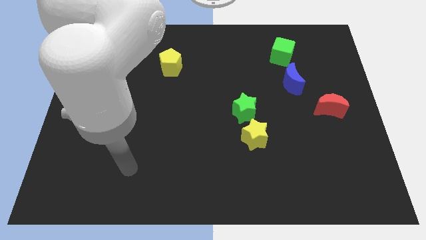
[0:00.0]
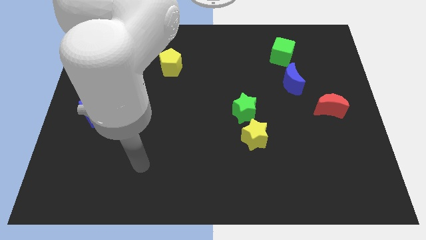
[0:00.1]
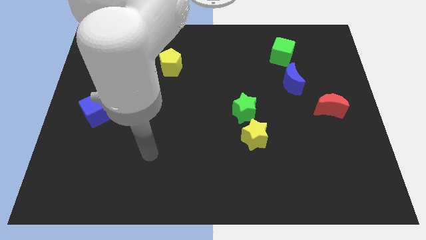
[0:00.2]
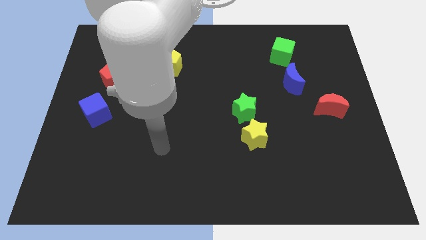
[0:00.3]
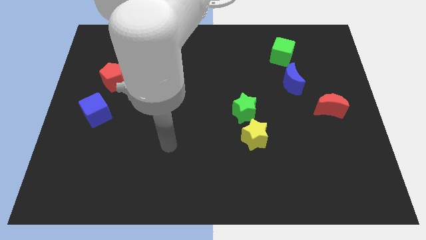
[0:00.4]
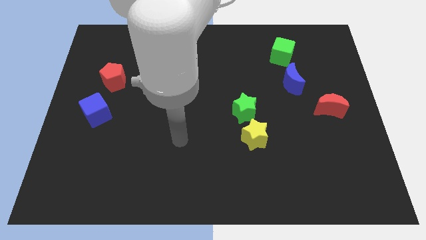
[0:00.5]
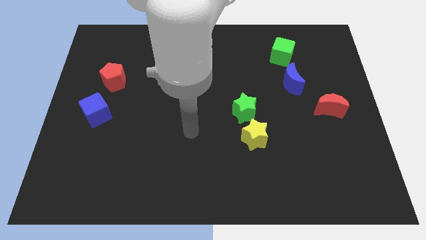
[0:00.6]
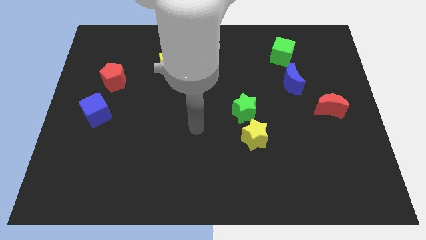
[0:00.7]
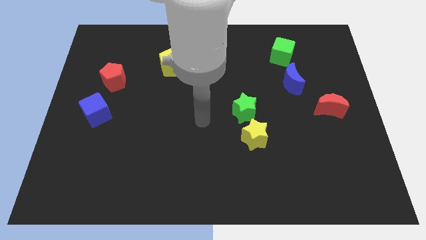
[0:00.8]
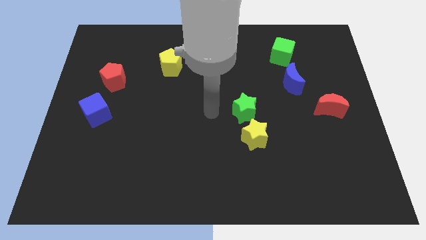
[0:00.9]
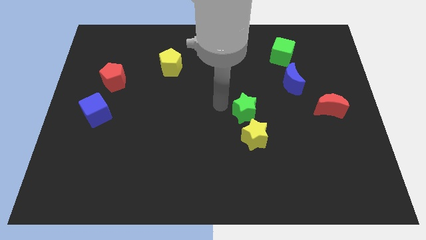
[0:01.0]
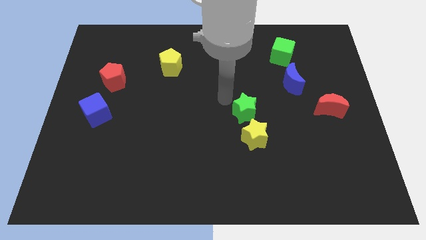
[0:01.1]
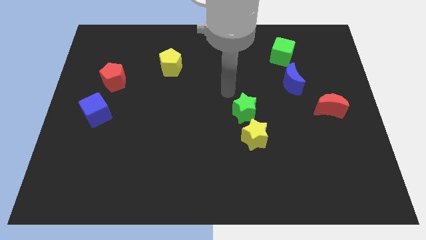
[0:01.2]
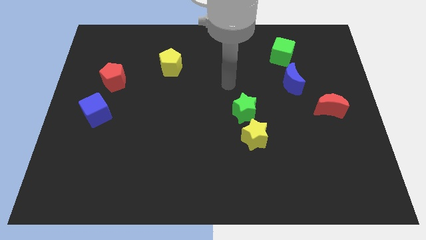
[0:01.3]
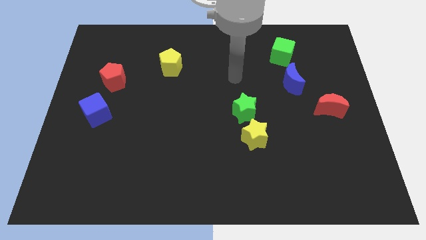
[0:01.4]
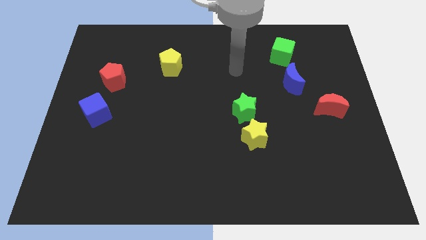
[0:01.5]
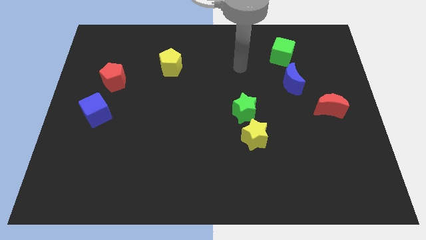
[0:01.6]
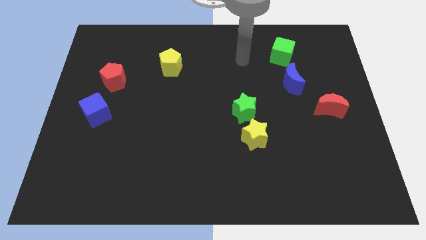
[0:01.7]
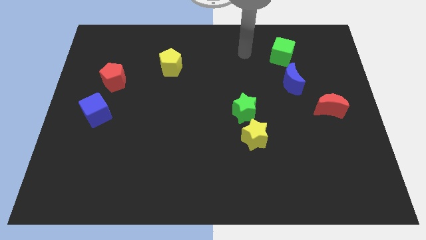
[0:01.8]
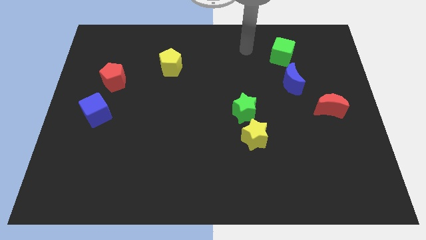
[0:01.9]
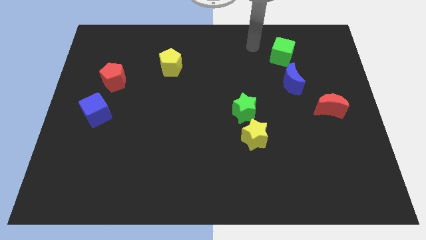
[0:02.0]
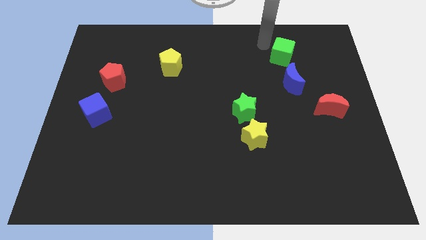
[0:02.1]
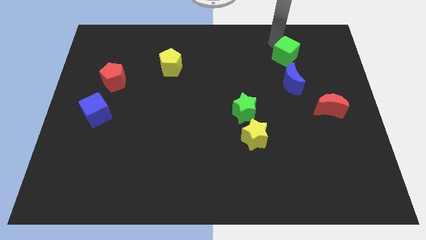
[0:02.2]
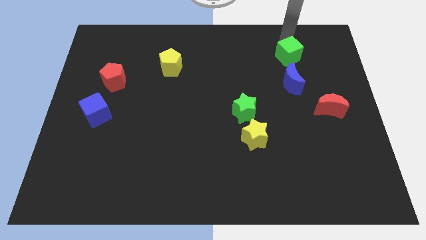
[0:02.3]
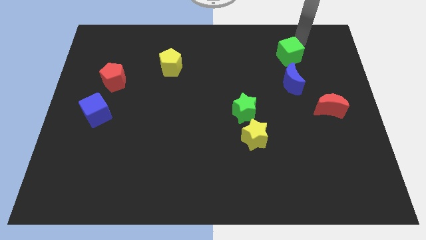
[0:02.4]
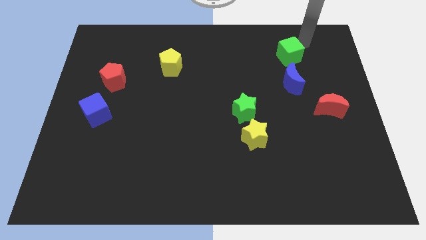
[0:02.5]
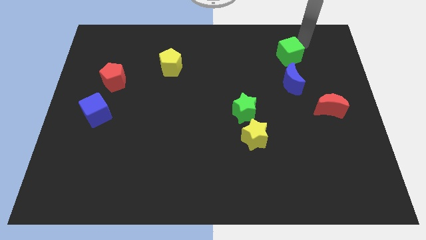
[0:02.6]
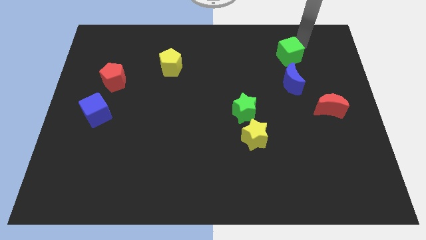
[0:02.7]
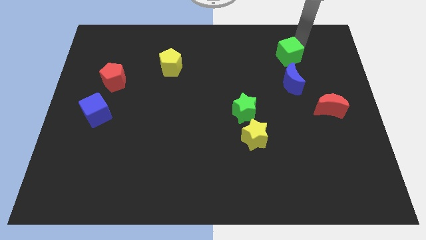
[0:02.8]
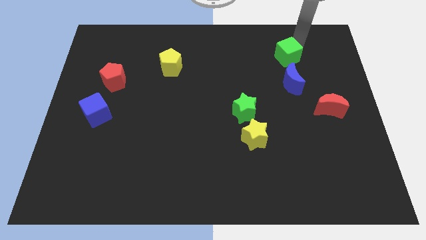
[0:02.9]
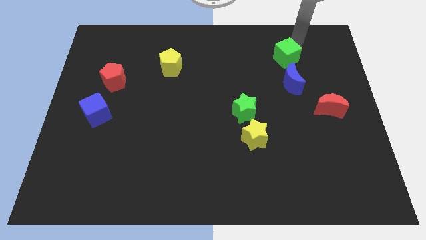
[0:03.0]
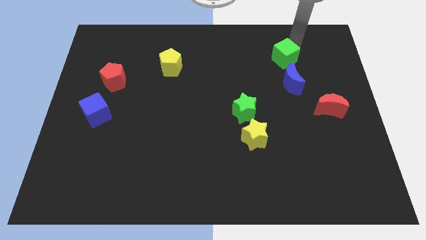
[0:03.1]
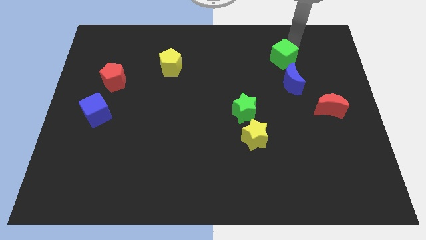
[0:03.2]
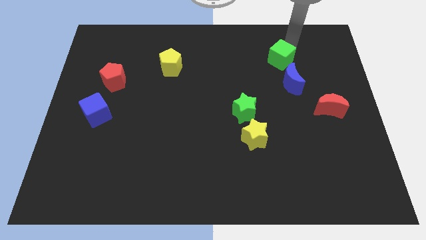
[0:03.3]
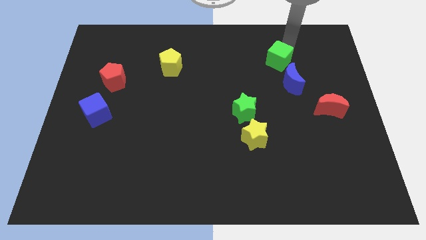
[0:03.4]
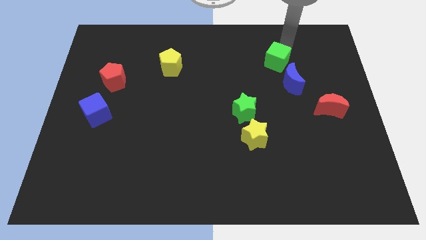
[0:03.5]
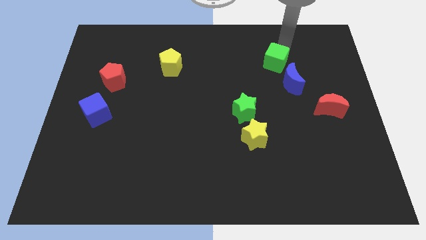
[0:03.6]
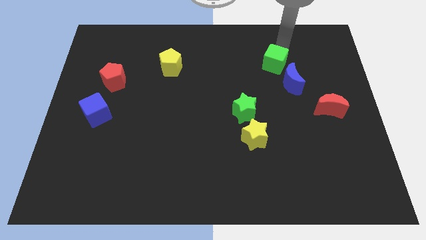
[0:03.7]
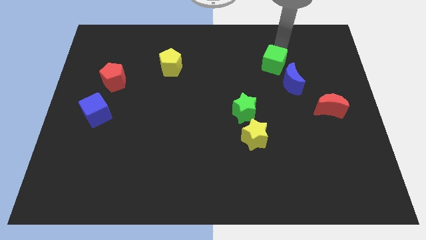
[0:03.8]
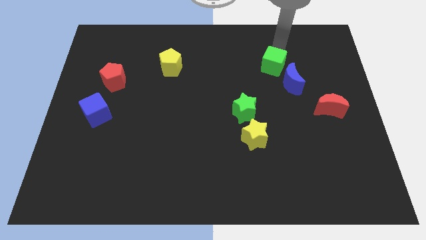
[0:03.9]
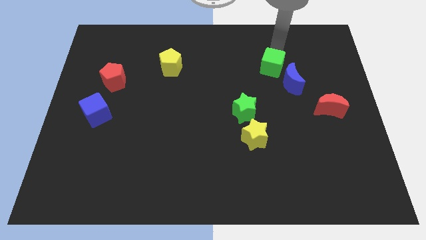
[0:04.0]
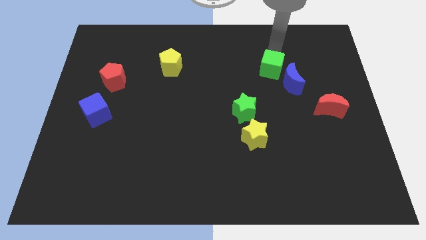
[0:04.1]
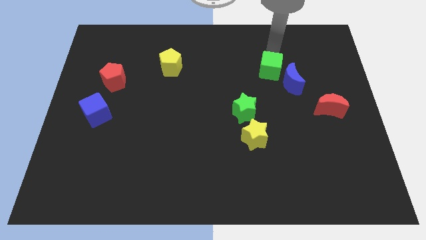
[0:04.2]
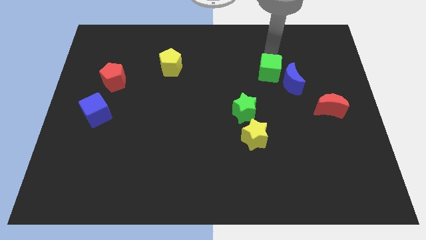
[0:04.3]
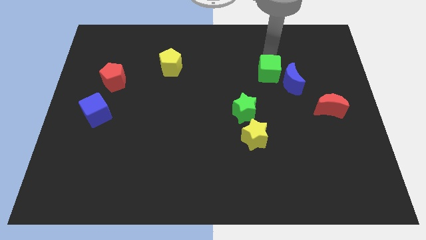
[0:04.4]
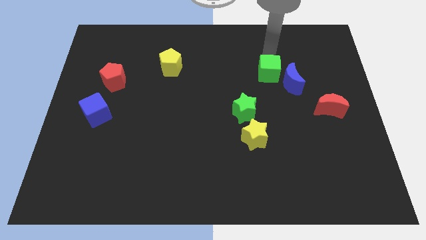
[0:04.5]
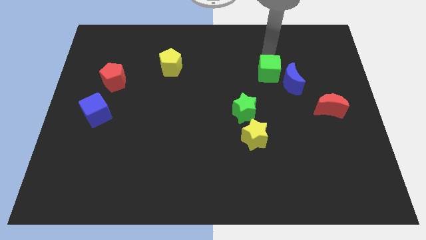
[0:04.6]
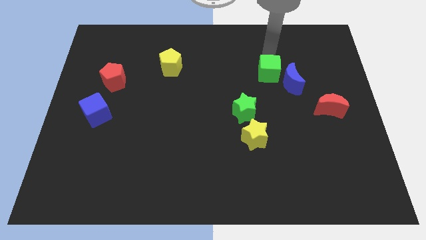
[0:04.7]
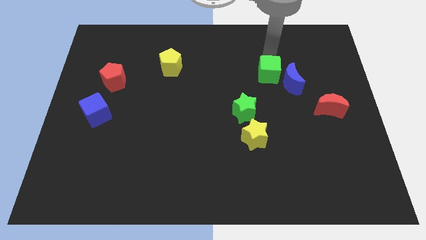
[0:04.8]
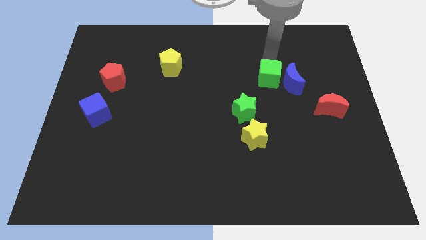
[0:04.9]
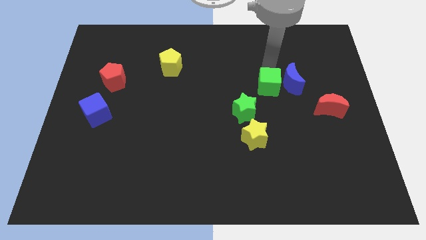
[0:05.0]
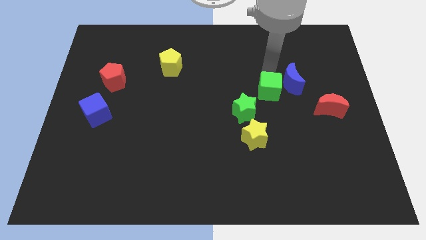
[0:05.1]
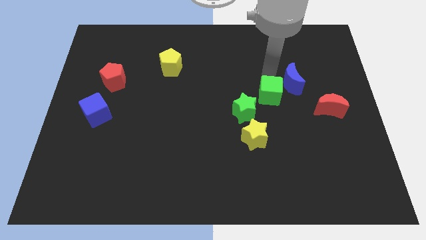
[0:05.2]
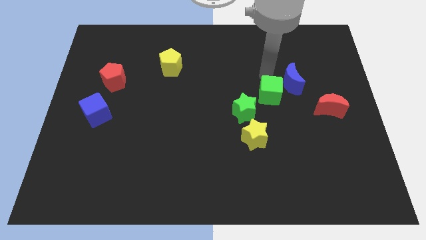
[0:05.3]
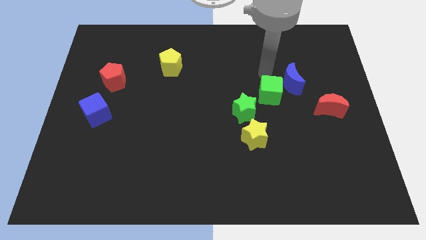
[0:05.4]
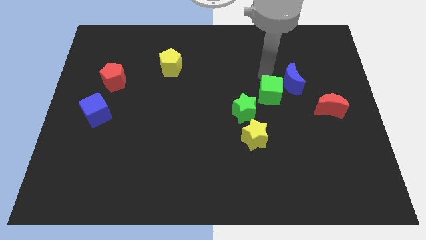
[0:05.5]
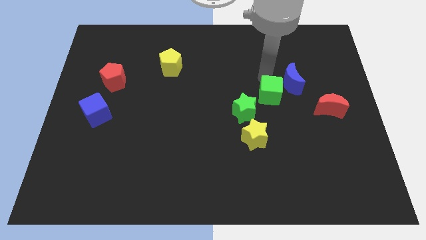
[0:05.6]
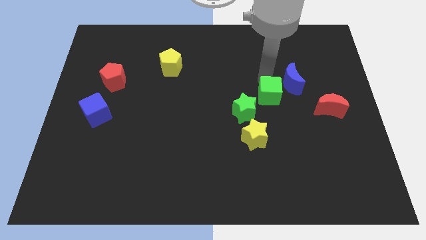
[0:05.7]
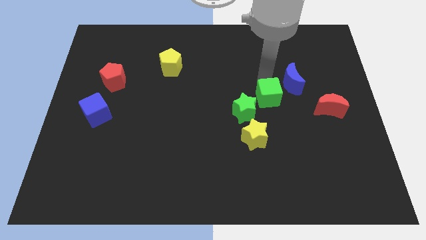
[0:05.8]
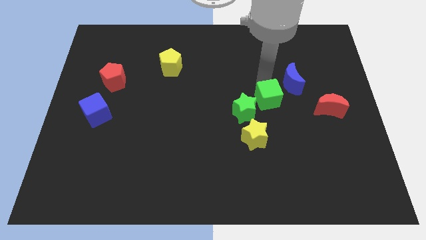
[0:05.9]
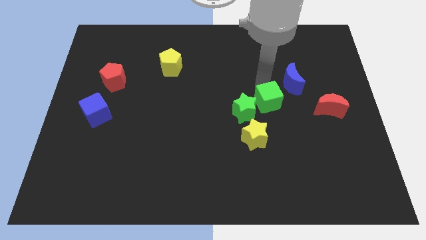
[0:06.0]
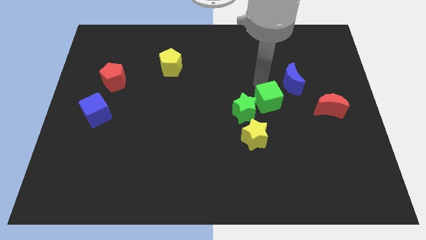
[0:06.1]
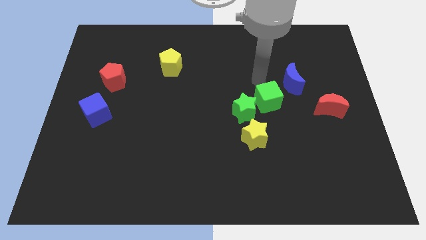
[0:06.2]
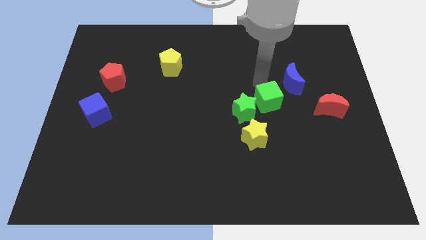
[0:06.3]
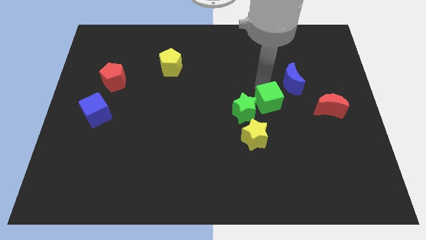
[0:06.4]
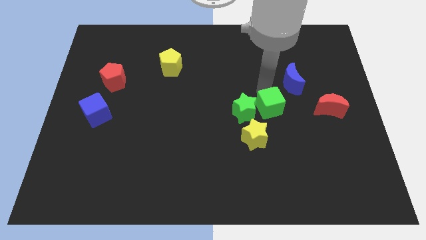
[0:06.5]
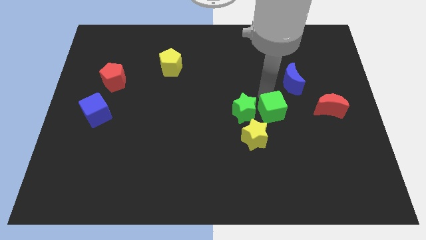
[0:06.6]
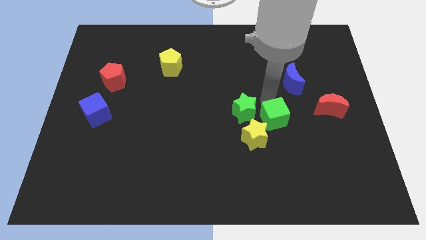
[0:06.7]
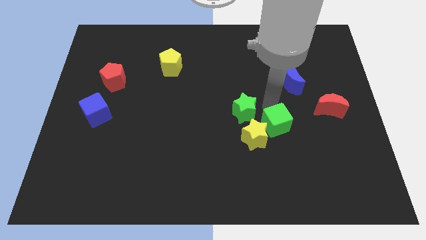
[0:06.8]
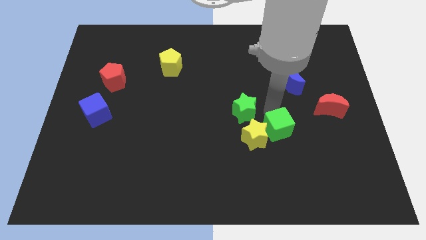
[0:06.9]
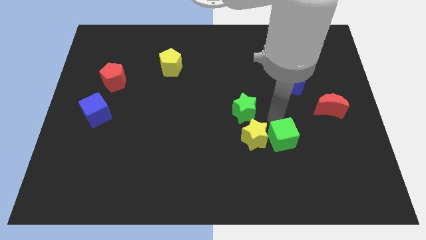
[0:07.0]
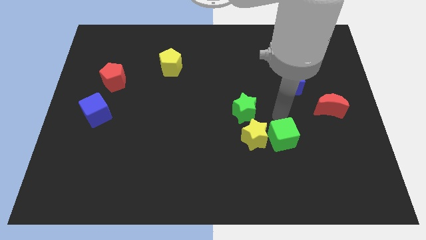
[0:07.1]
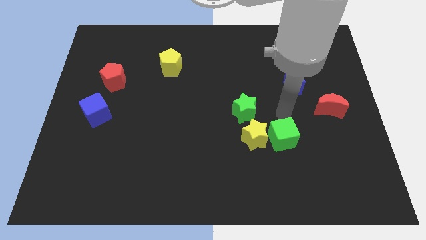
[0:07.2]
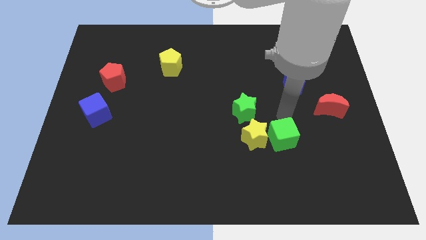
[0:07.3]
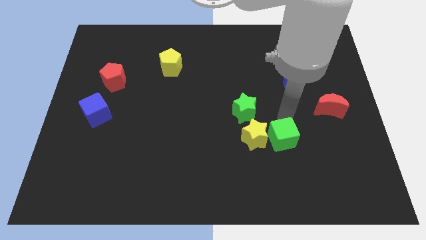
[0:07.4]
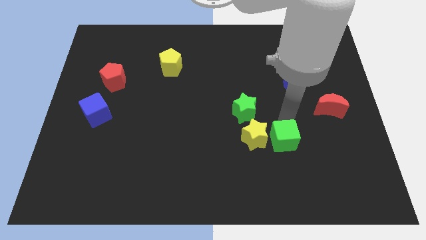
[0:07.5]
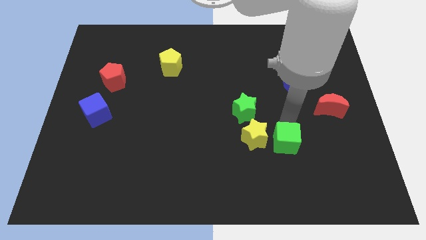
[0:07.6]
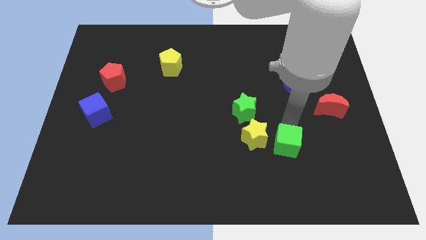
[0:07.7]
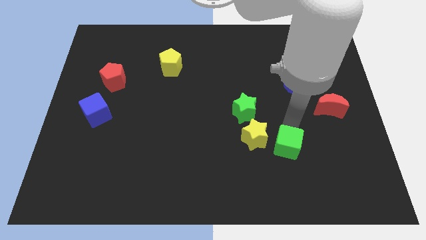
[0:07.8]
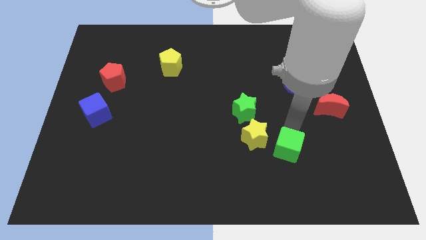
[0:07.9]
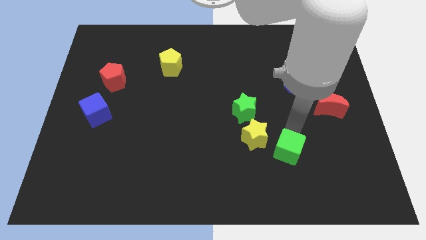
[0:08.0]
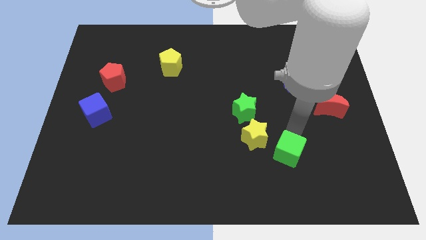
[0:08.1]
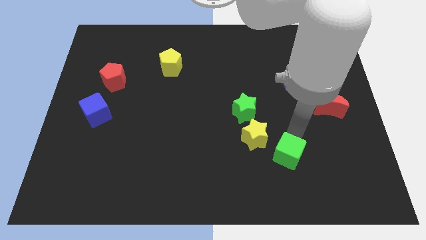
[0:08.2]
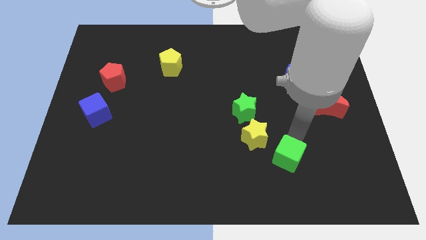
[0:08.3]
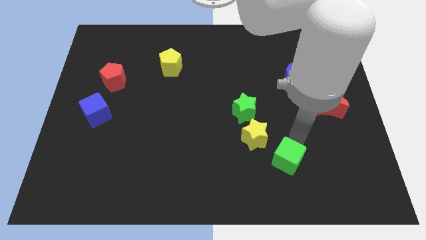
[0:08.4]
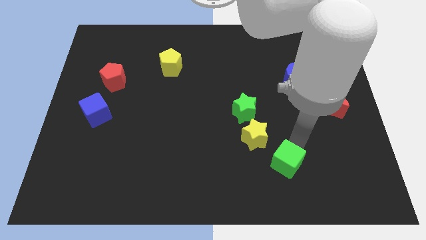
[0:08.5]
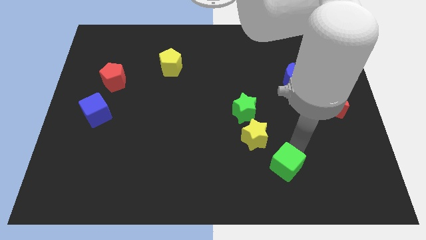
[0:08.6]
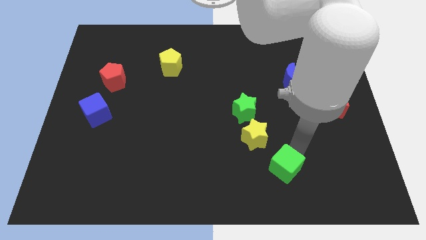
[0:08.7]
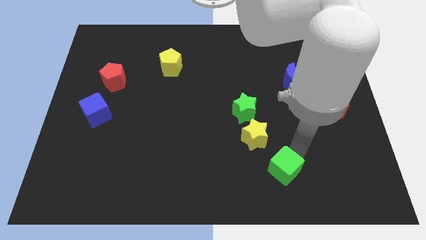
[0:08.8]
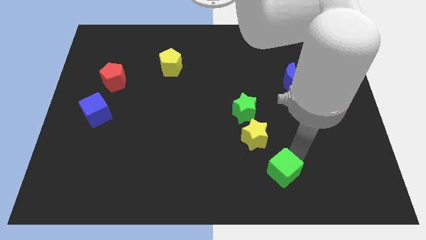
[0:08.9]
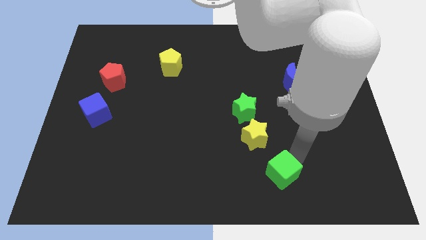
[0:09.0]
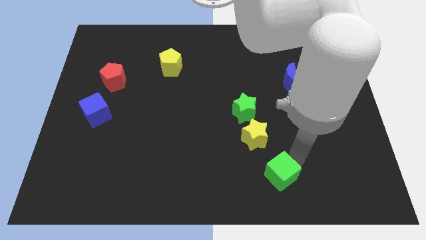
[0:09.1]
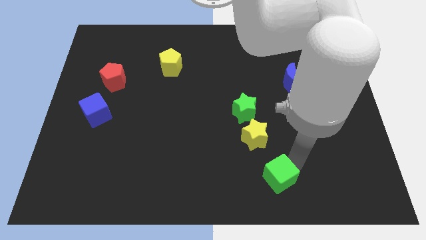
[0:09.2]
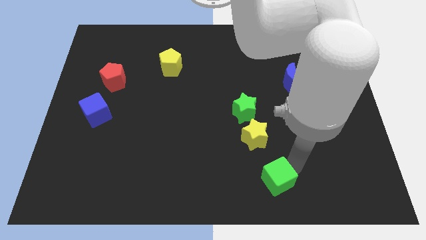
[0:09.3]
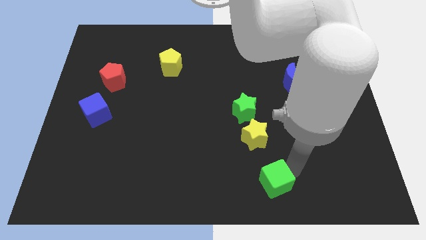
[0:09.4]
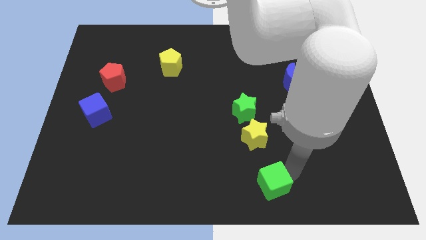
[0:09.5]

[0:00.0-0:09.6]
push the green cube to the bottom
